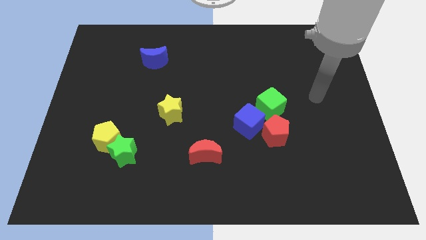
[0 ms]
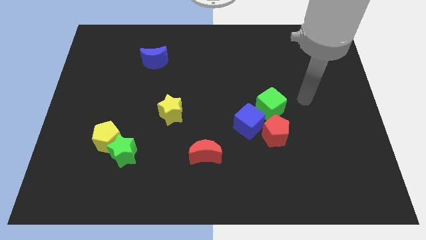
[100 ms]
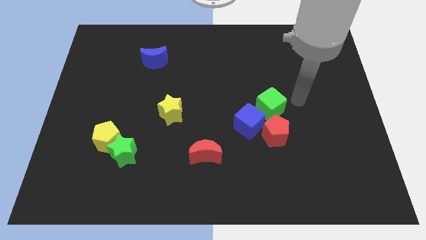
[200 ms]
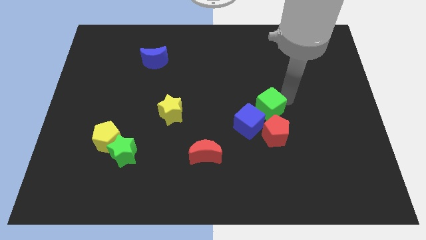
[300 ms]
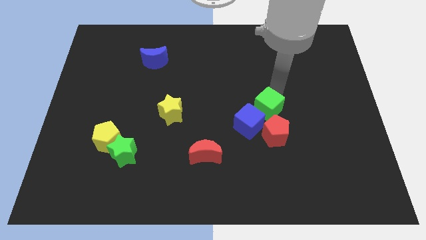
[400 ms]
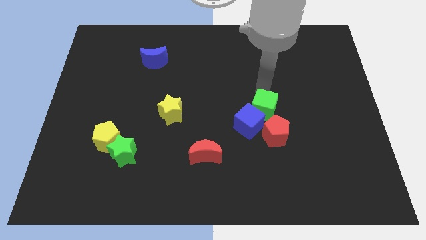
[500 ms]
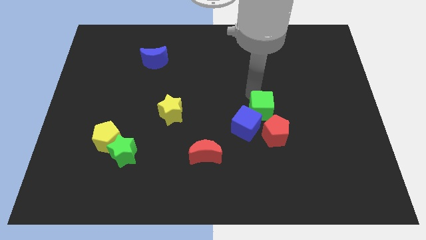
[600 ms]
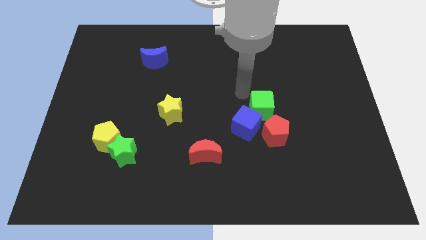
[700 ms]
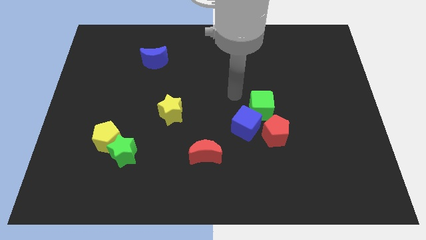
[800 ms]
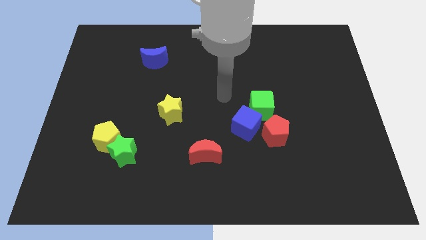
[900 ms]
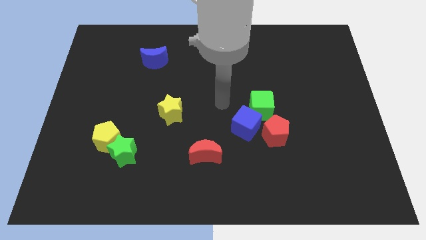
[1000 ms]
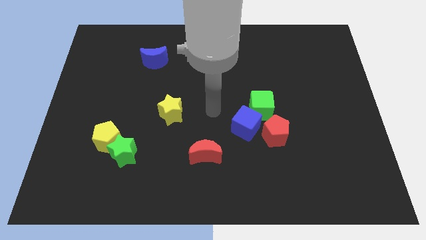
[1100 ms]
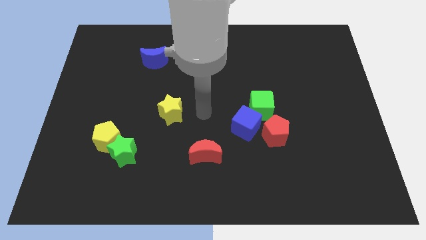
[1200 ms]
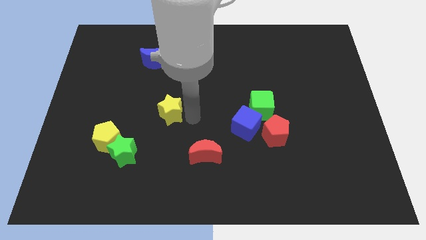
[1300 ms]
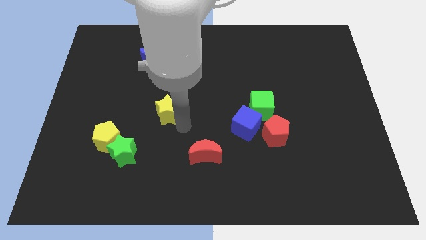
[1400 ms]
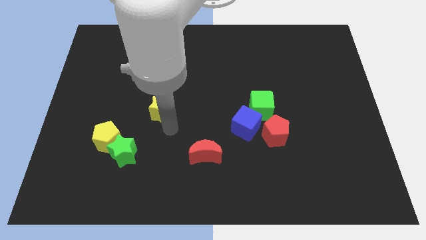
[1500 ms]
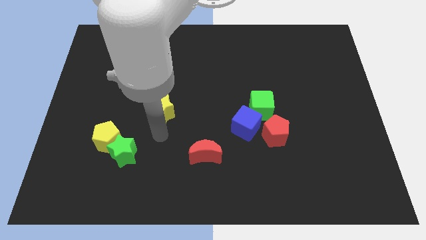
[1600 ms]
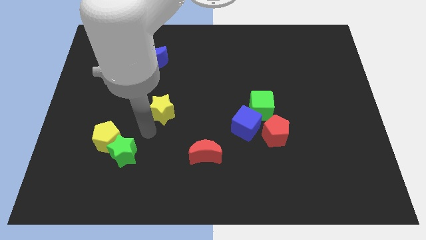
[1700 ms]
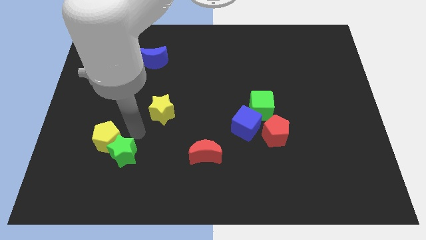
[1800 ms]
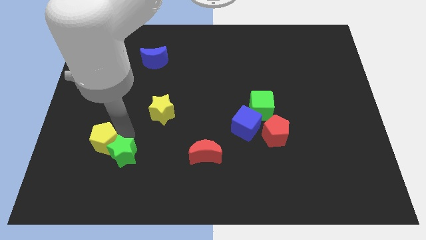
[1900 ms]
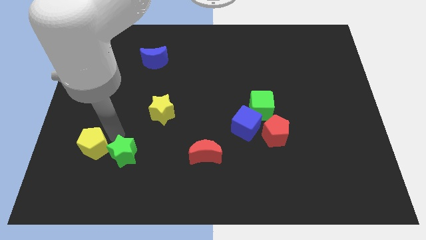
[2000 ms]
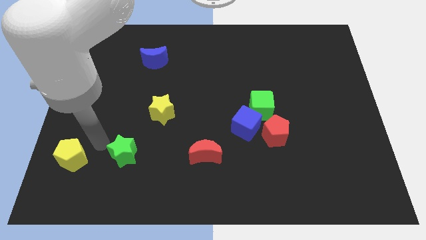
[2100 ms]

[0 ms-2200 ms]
separate the green star from the yellow pentagon

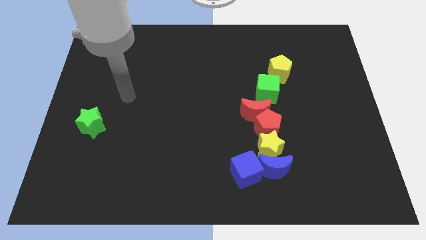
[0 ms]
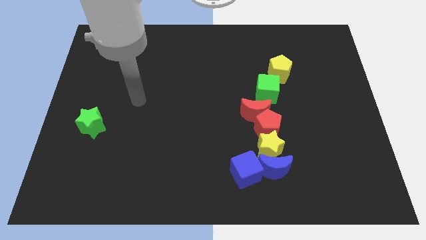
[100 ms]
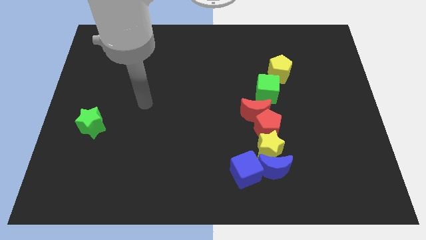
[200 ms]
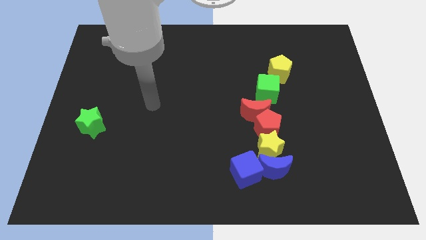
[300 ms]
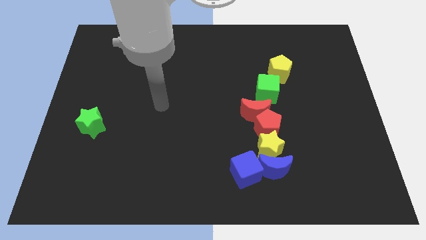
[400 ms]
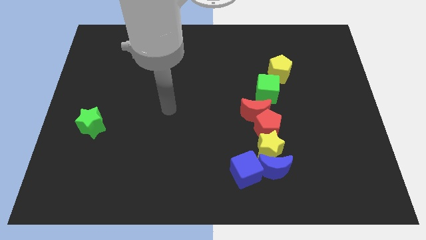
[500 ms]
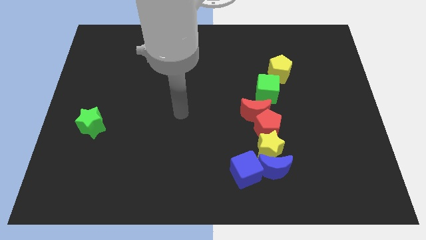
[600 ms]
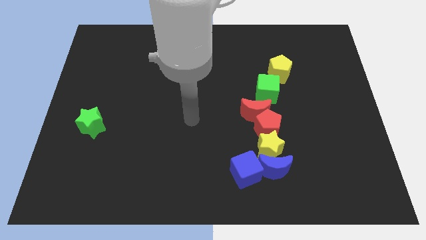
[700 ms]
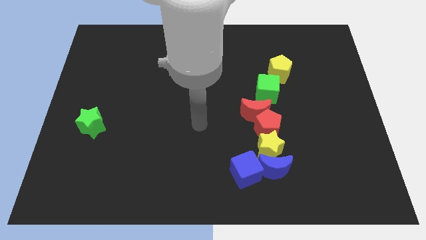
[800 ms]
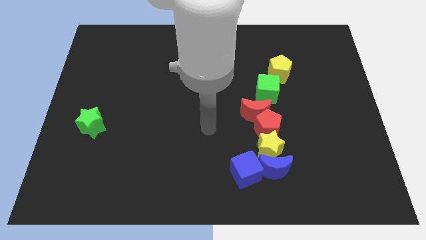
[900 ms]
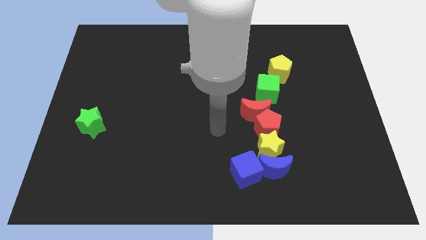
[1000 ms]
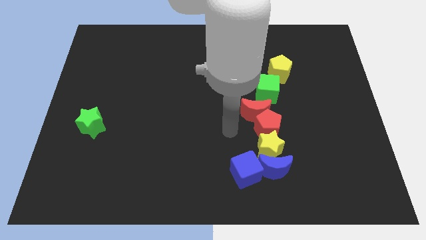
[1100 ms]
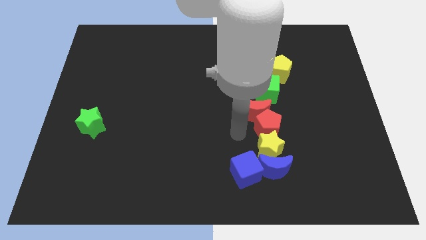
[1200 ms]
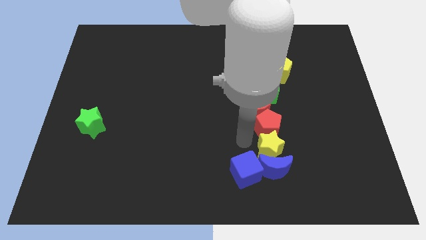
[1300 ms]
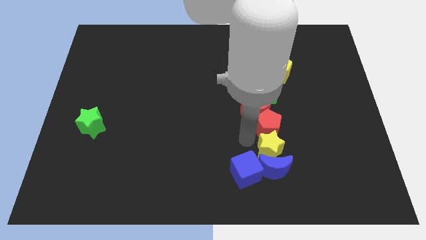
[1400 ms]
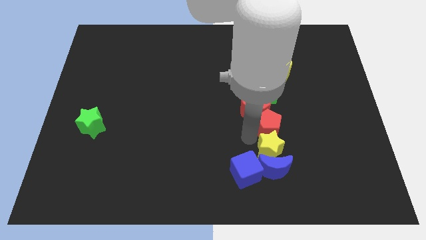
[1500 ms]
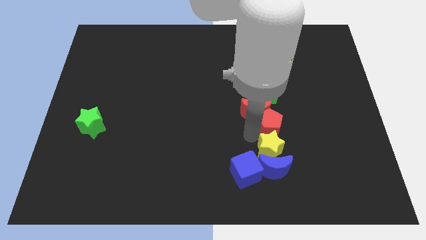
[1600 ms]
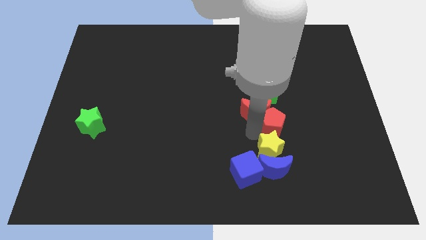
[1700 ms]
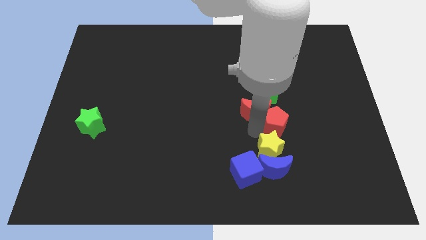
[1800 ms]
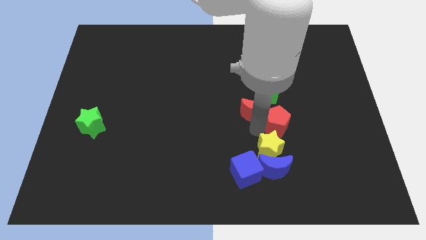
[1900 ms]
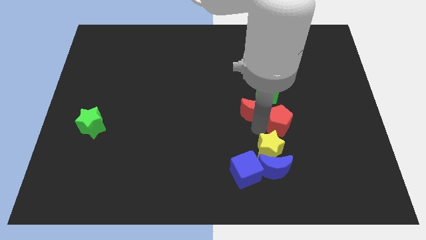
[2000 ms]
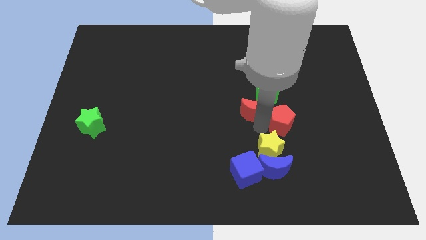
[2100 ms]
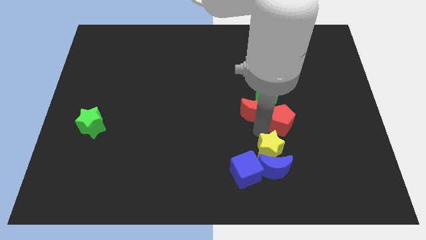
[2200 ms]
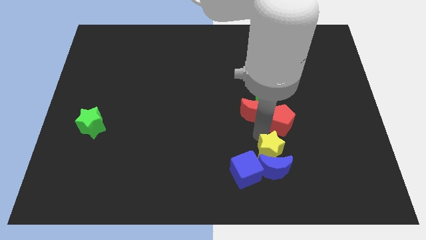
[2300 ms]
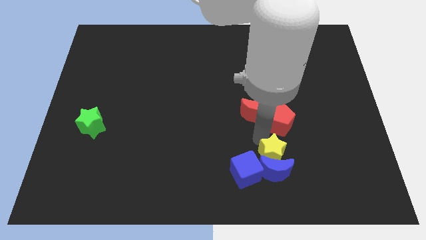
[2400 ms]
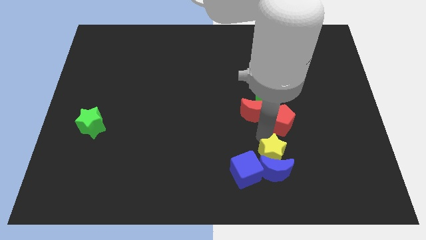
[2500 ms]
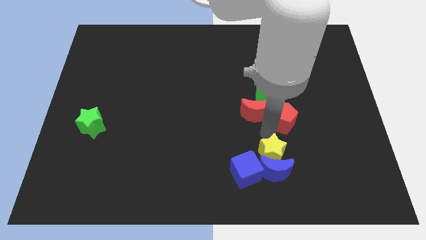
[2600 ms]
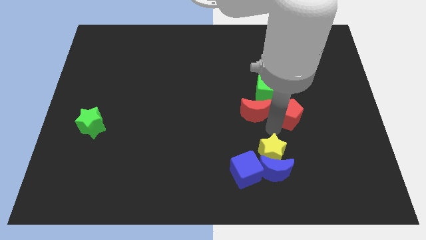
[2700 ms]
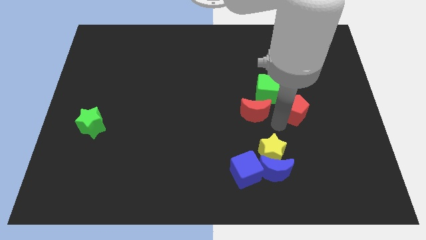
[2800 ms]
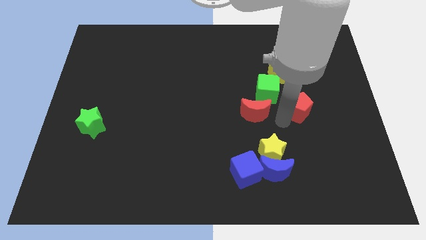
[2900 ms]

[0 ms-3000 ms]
pull the red pentagon apart from the red moon and yellow star

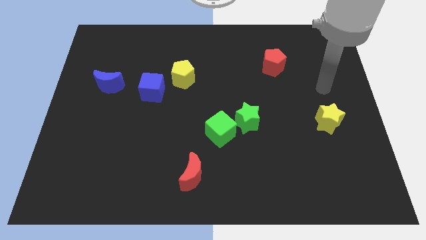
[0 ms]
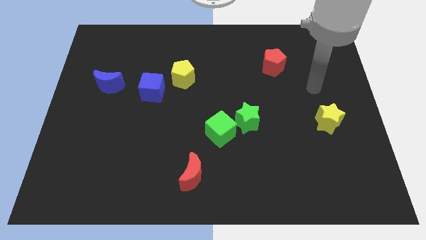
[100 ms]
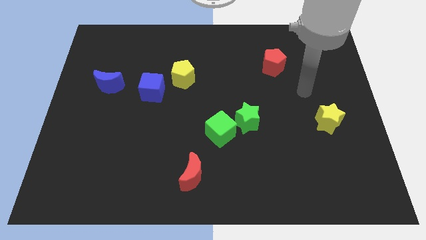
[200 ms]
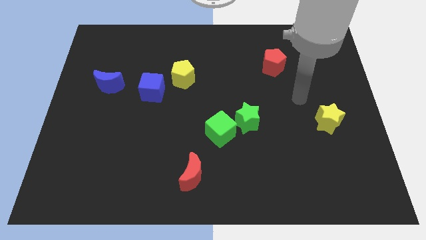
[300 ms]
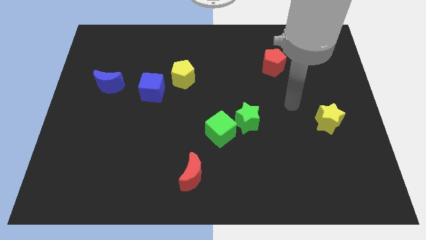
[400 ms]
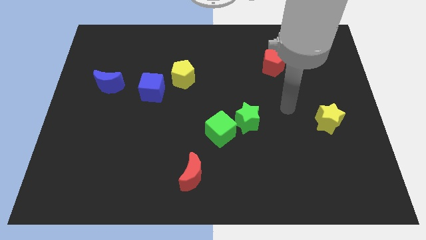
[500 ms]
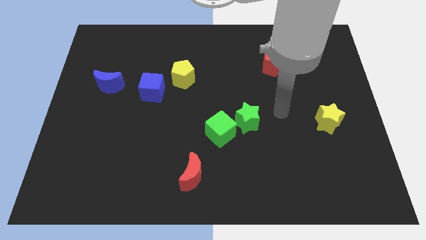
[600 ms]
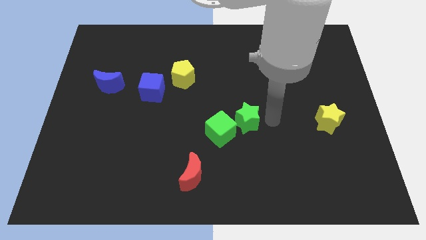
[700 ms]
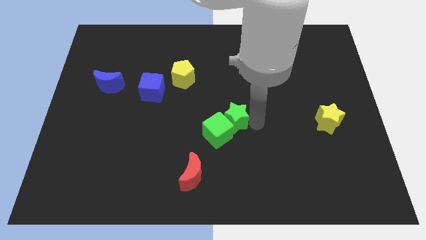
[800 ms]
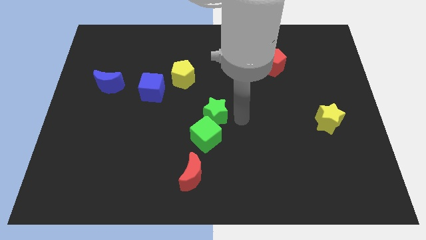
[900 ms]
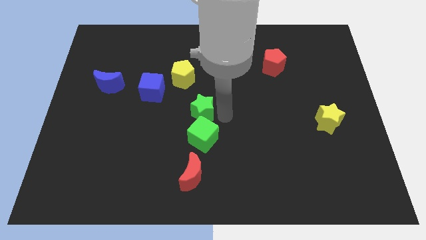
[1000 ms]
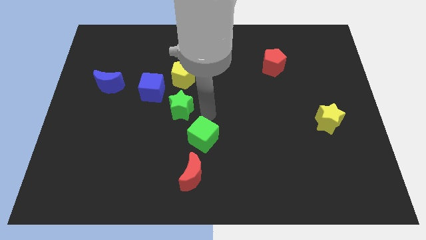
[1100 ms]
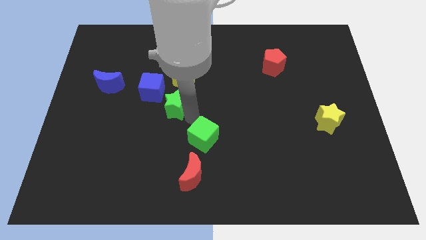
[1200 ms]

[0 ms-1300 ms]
pull the green cube apart from the green star

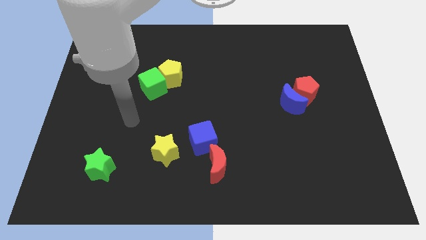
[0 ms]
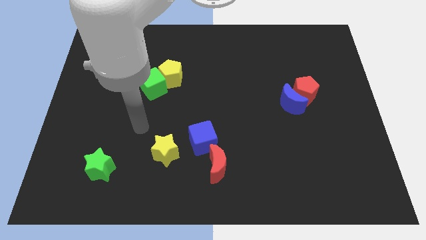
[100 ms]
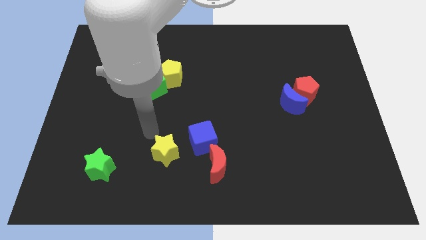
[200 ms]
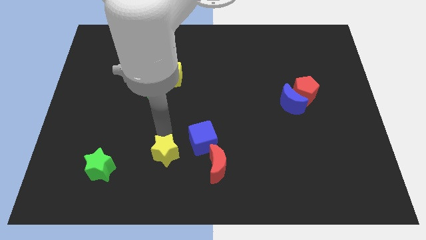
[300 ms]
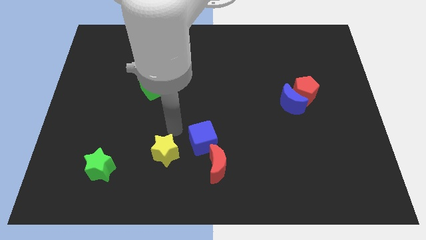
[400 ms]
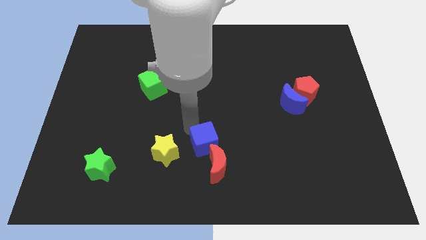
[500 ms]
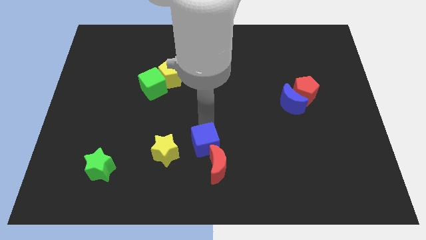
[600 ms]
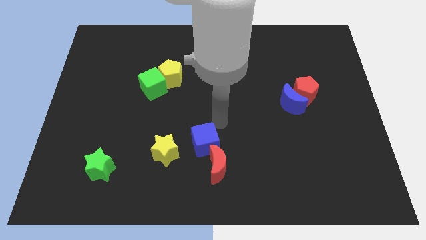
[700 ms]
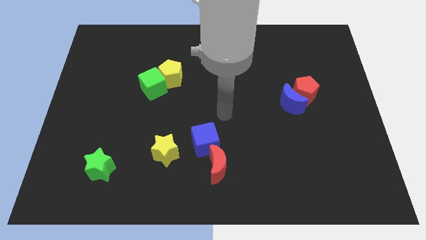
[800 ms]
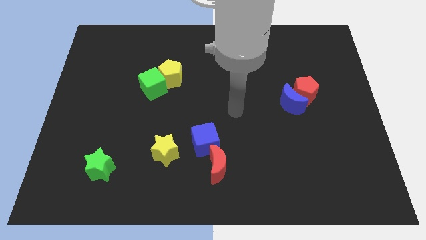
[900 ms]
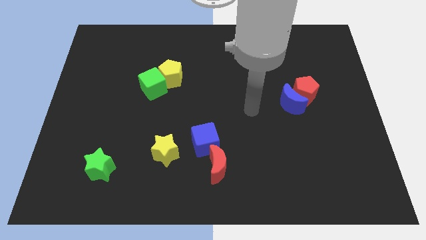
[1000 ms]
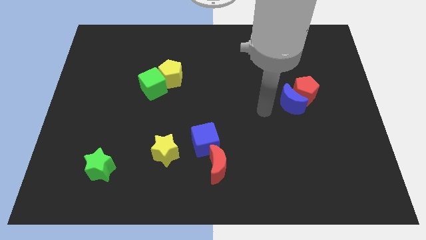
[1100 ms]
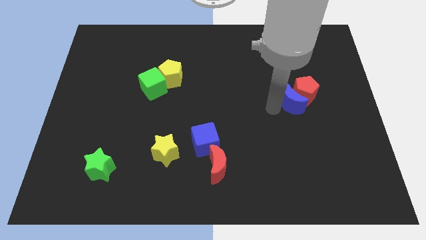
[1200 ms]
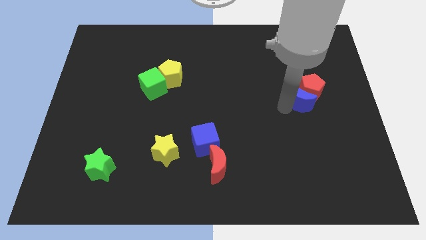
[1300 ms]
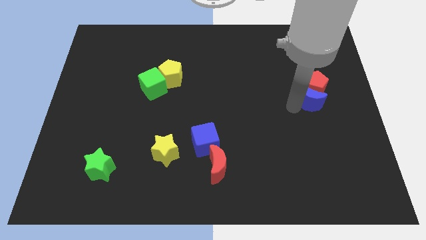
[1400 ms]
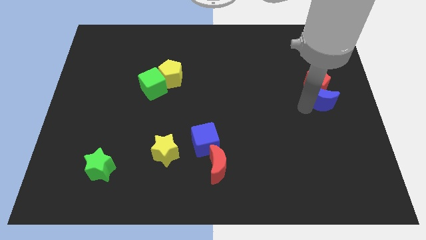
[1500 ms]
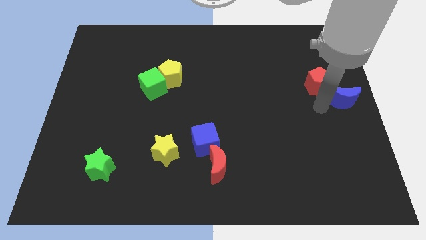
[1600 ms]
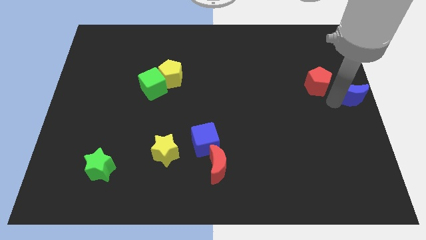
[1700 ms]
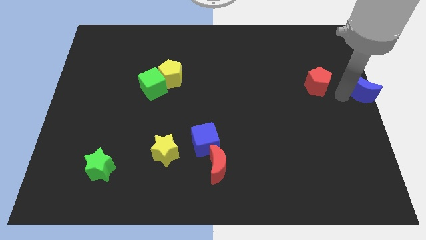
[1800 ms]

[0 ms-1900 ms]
pull the red pentagon apart from the blue moon

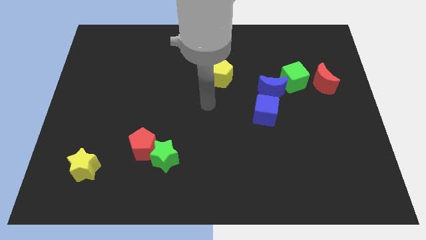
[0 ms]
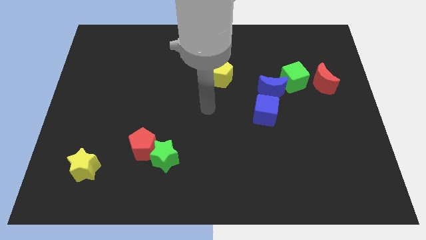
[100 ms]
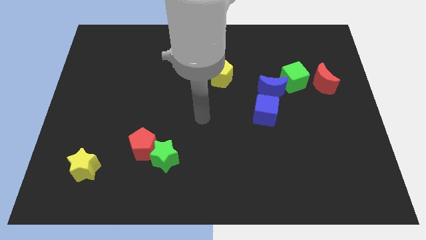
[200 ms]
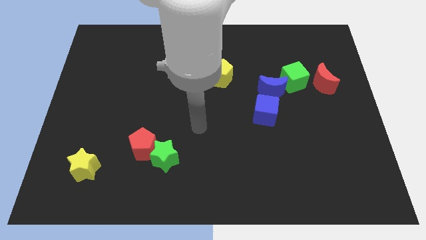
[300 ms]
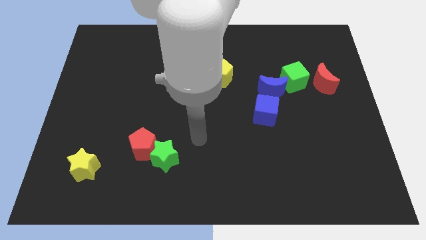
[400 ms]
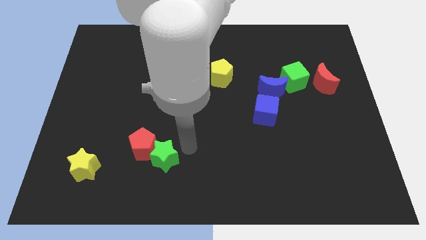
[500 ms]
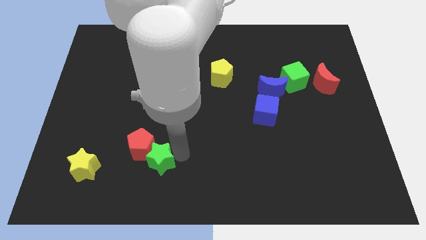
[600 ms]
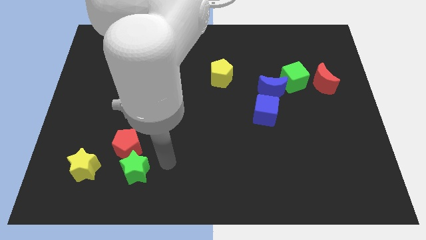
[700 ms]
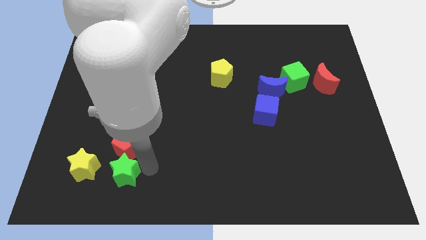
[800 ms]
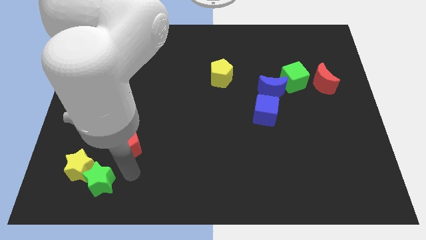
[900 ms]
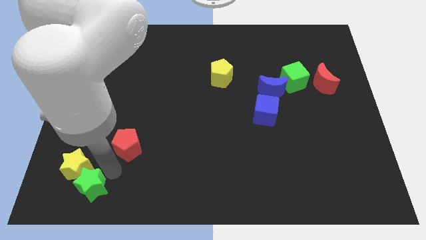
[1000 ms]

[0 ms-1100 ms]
move the red pentagon away from the green star
